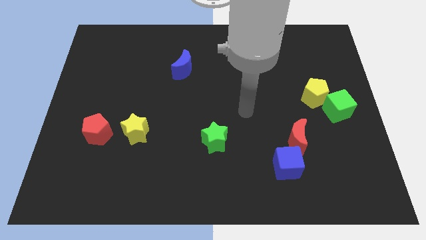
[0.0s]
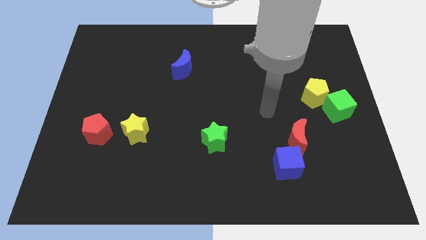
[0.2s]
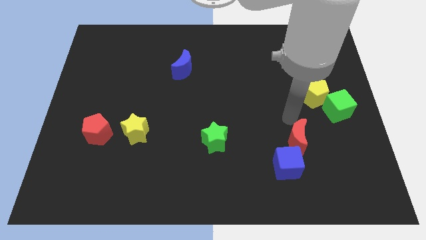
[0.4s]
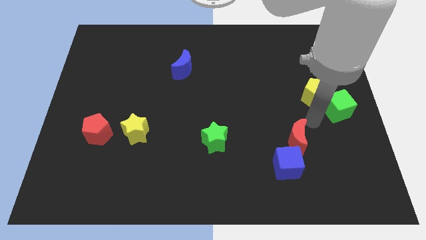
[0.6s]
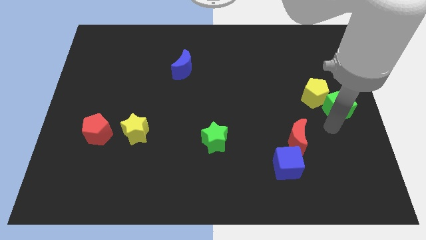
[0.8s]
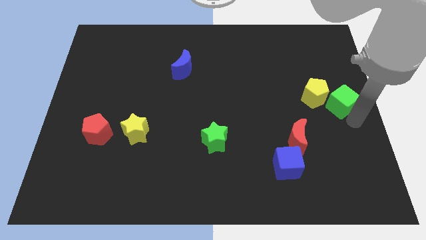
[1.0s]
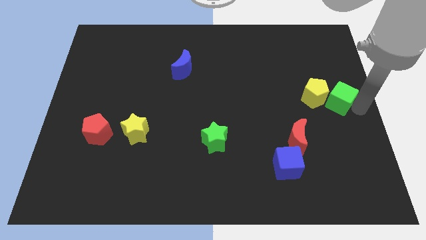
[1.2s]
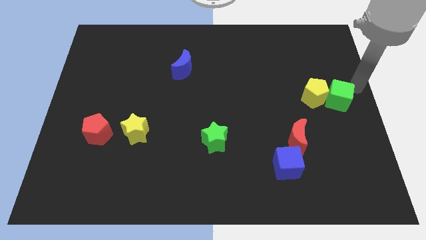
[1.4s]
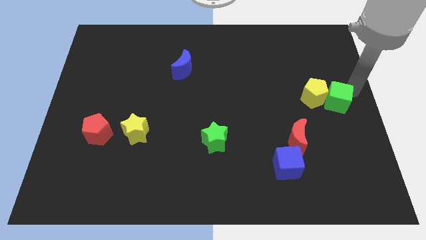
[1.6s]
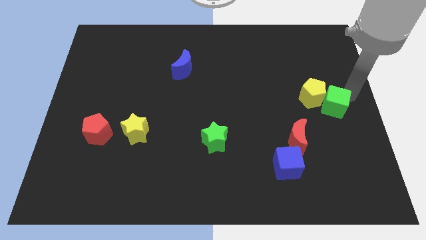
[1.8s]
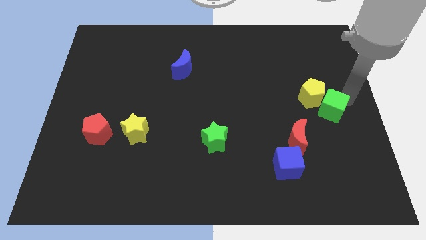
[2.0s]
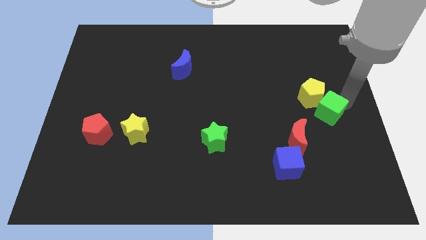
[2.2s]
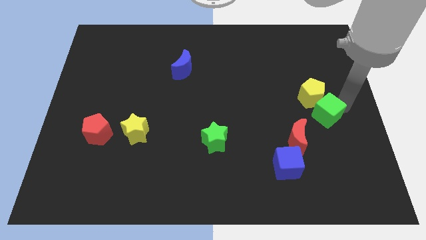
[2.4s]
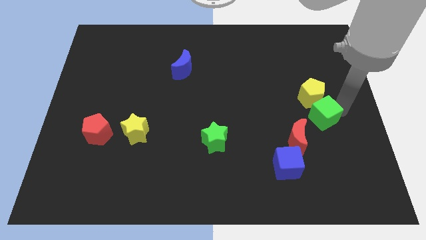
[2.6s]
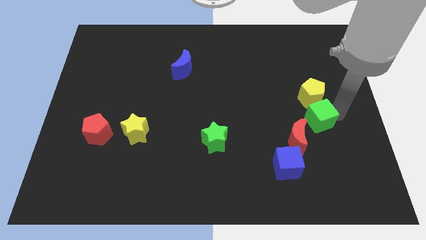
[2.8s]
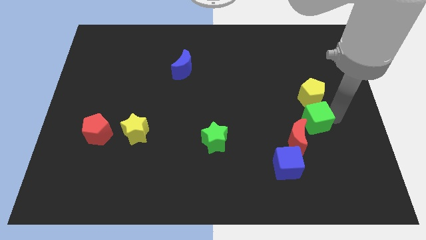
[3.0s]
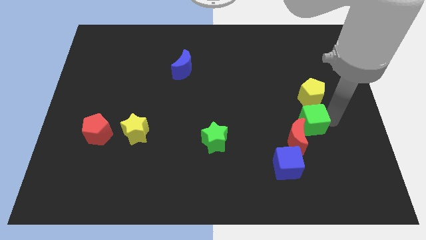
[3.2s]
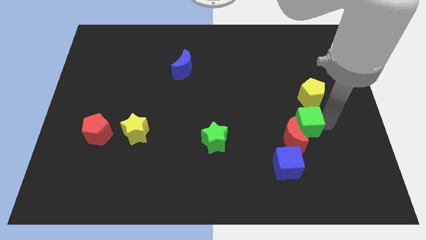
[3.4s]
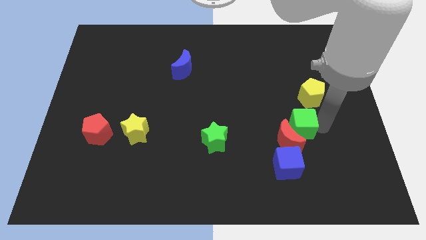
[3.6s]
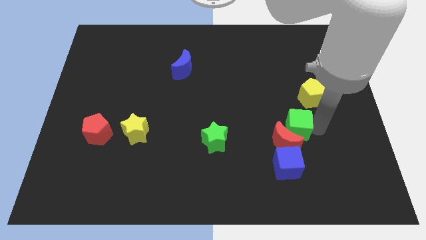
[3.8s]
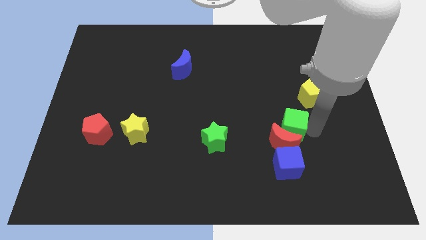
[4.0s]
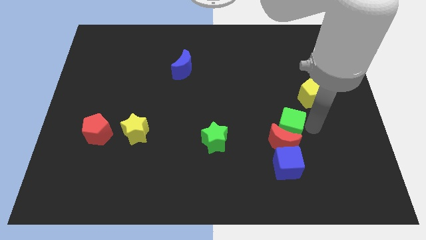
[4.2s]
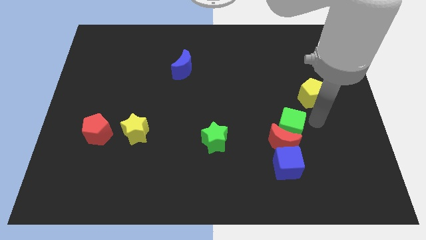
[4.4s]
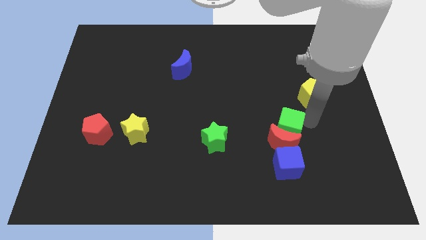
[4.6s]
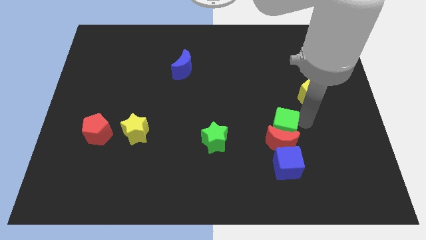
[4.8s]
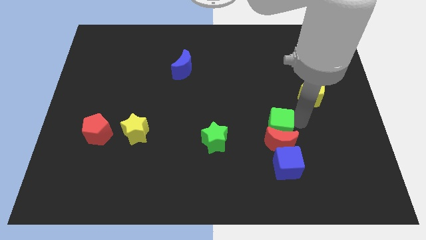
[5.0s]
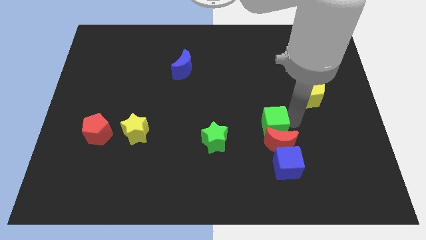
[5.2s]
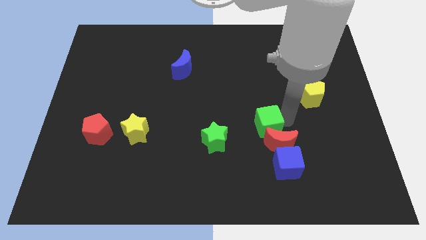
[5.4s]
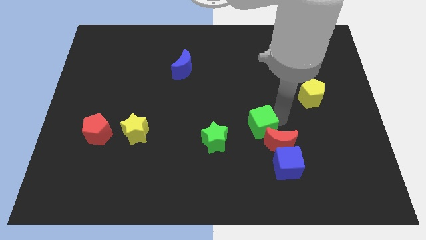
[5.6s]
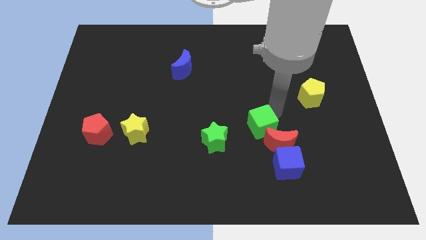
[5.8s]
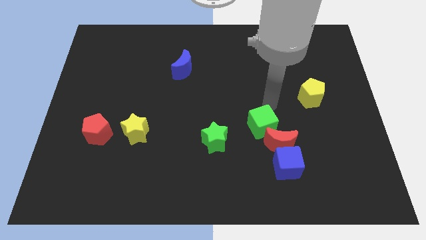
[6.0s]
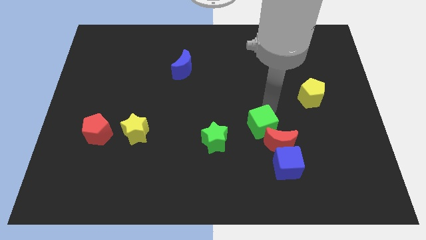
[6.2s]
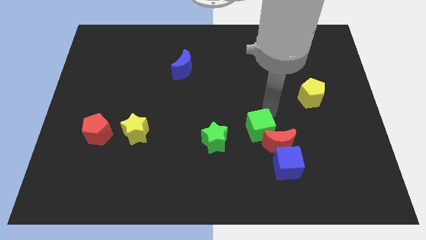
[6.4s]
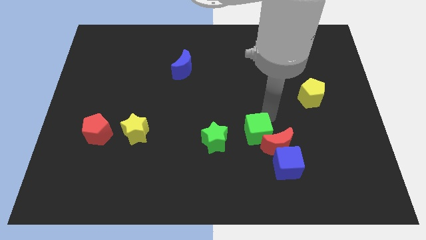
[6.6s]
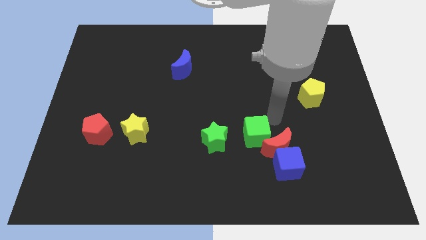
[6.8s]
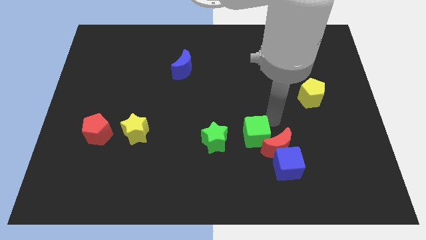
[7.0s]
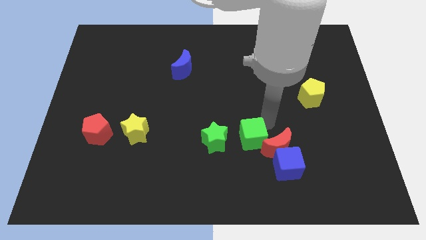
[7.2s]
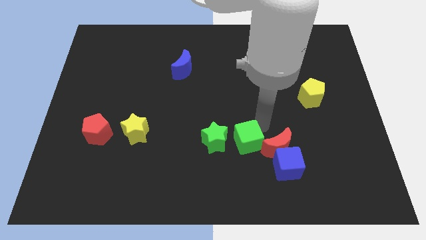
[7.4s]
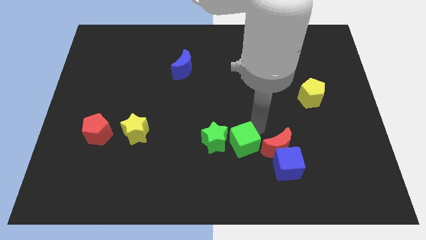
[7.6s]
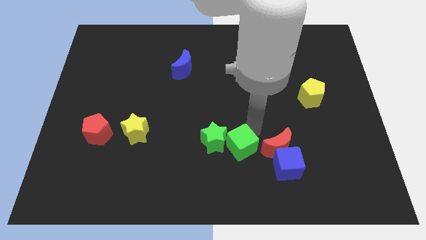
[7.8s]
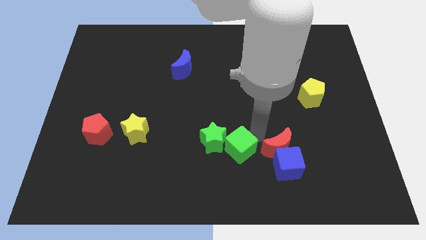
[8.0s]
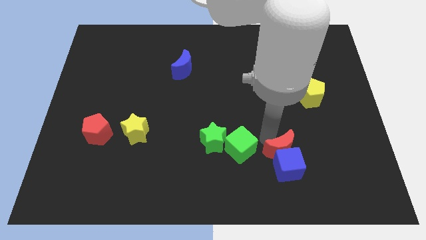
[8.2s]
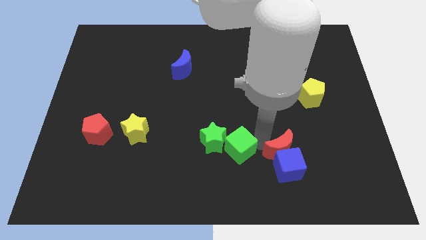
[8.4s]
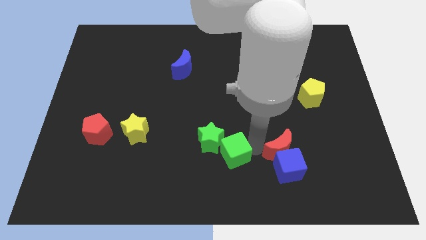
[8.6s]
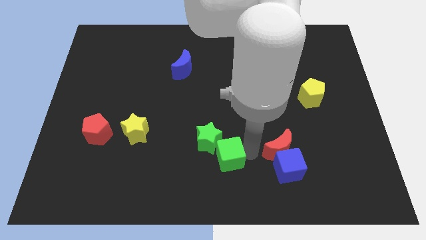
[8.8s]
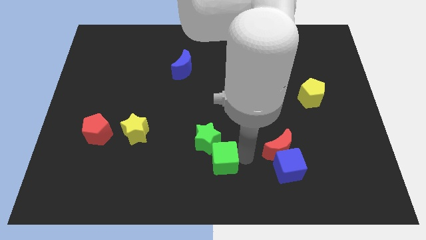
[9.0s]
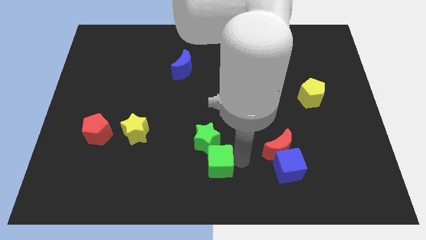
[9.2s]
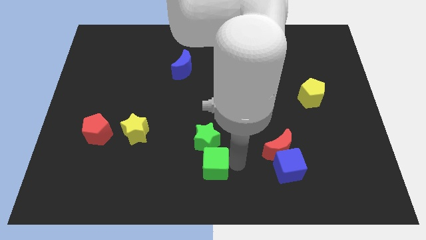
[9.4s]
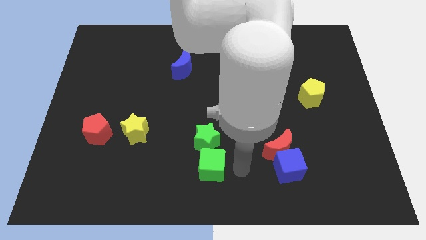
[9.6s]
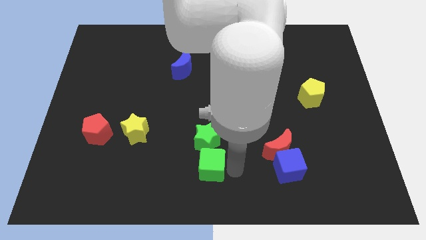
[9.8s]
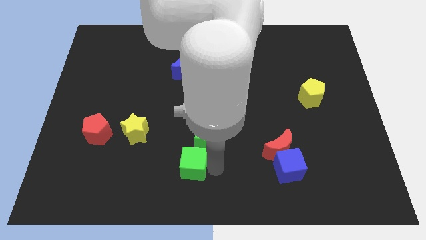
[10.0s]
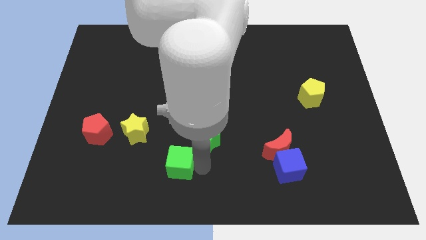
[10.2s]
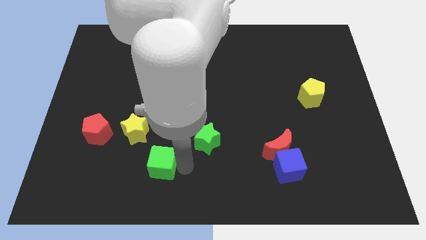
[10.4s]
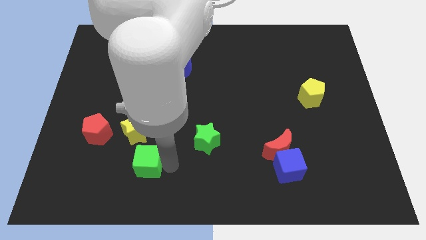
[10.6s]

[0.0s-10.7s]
put the green cube to the bottom of the yellow star

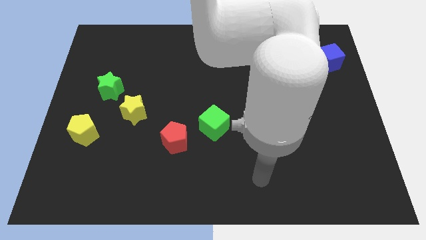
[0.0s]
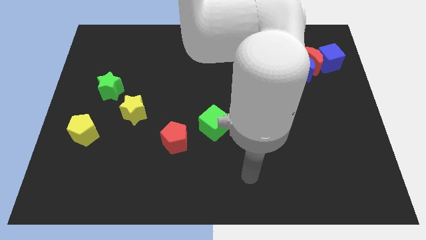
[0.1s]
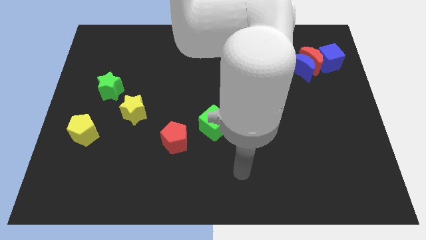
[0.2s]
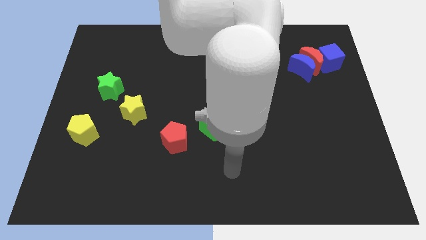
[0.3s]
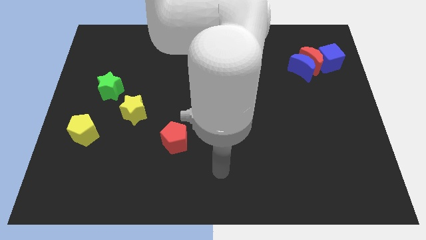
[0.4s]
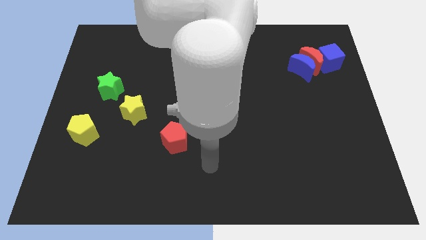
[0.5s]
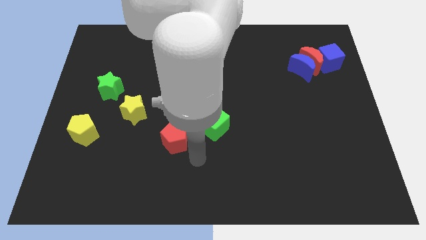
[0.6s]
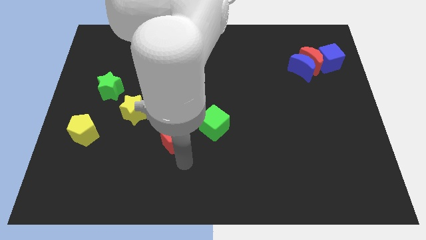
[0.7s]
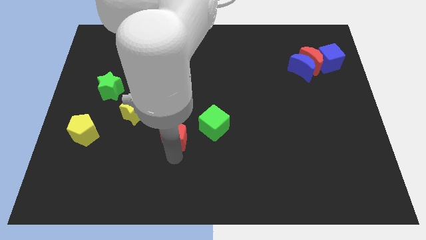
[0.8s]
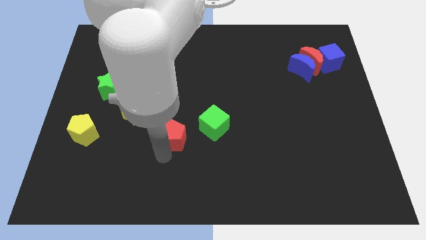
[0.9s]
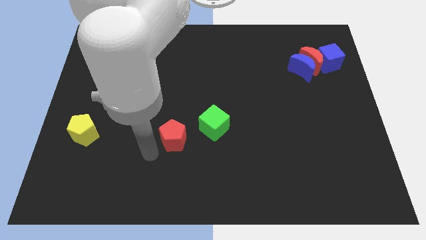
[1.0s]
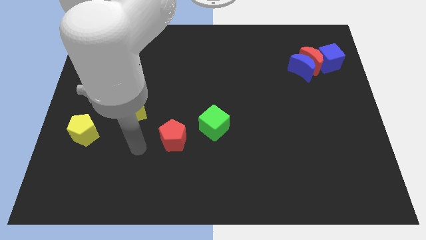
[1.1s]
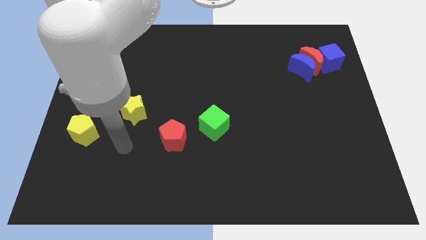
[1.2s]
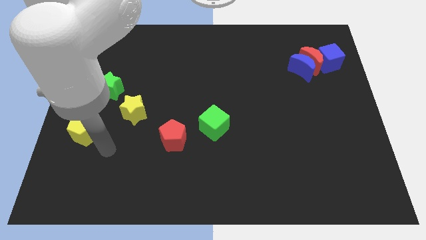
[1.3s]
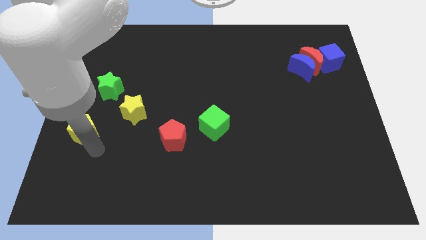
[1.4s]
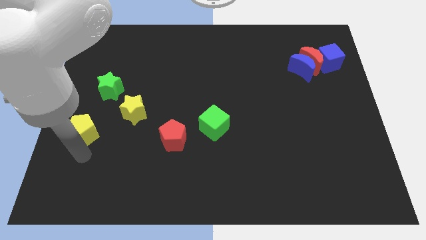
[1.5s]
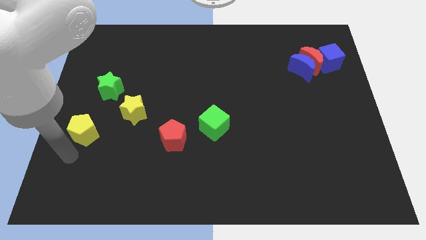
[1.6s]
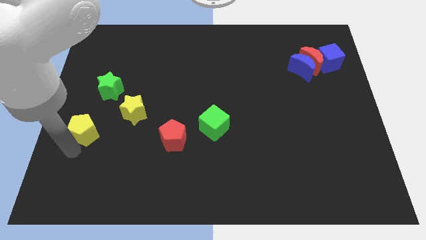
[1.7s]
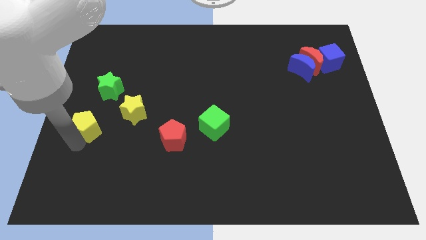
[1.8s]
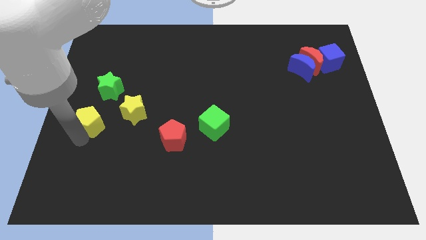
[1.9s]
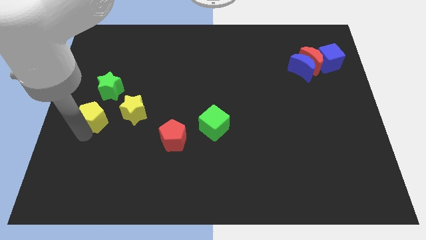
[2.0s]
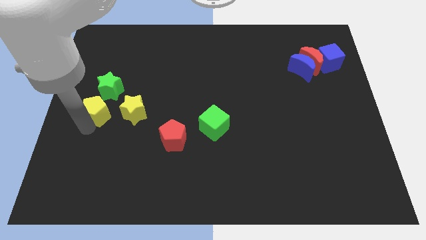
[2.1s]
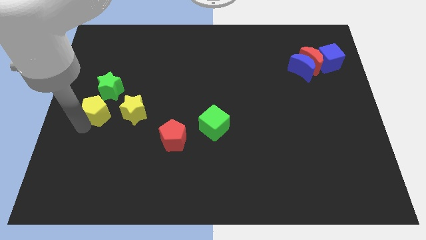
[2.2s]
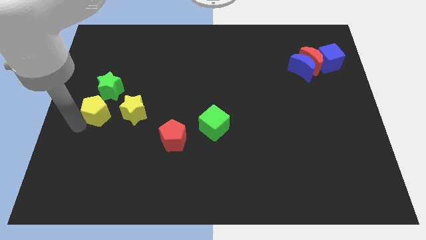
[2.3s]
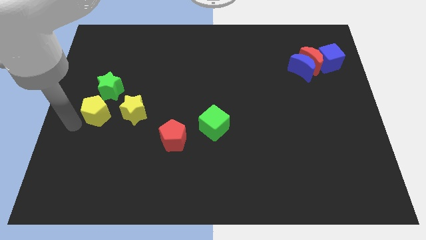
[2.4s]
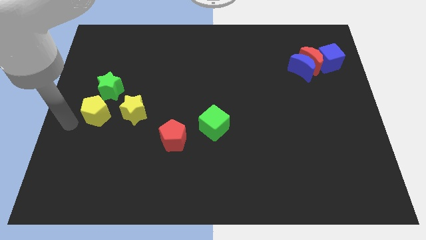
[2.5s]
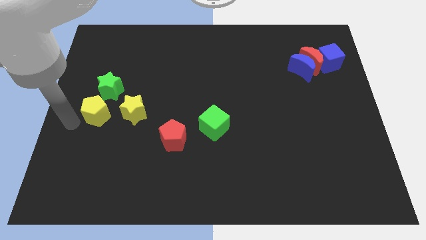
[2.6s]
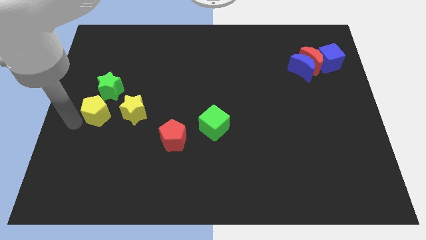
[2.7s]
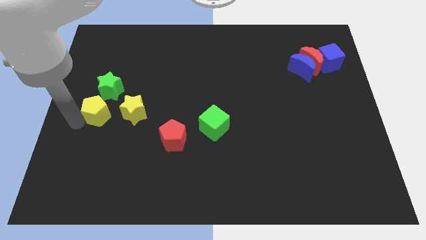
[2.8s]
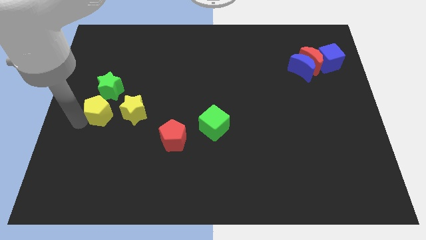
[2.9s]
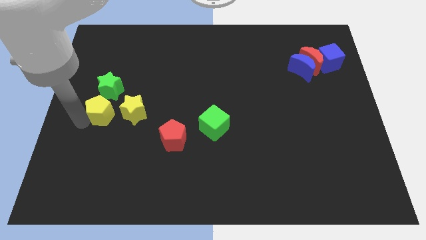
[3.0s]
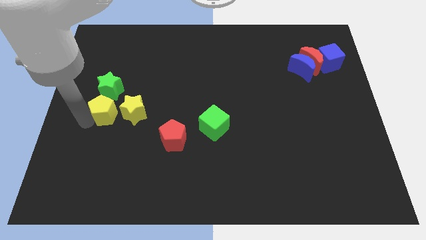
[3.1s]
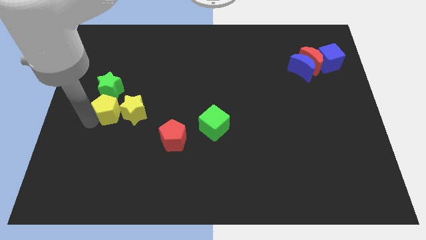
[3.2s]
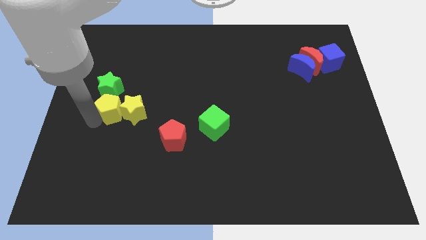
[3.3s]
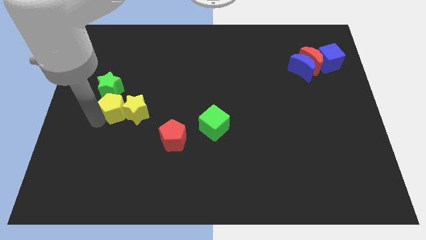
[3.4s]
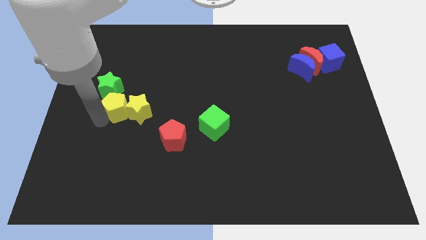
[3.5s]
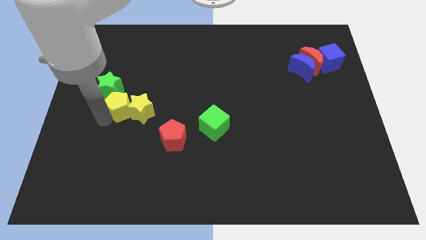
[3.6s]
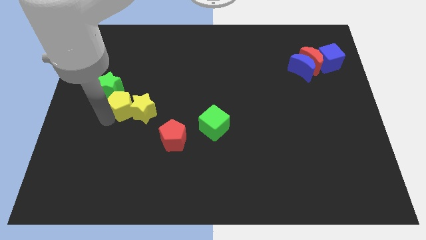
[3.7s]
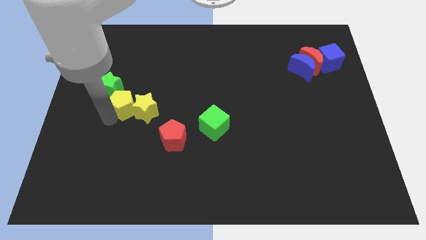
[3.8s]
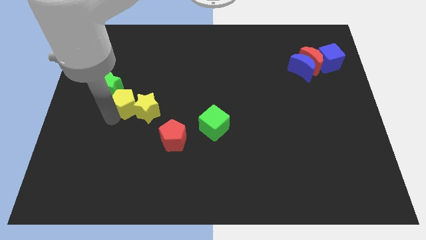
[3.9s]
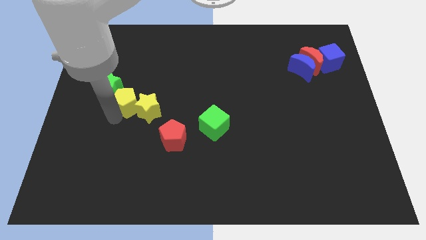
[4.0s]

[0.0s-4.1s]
slide the yellow pentagon just right of the green star
